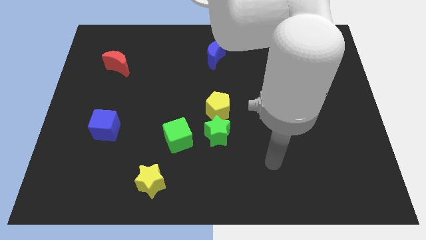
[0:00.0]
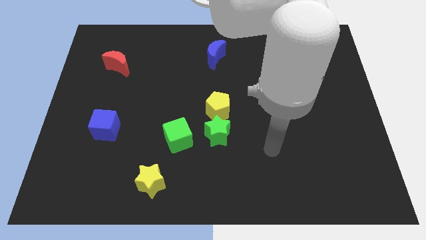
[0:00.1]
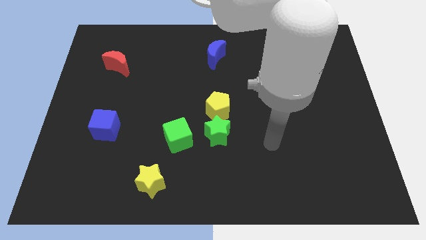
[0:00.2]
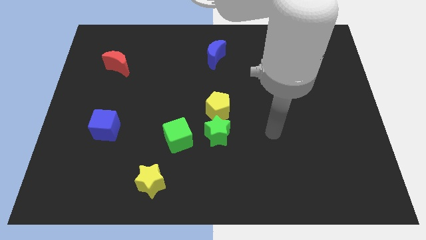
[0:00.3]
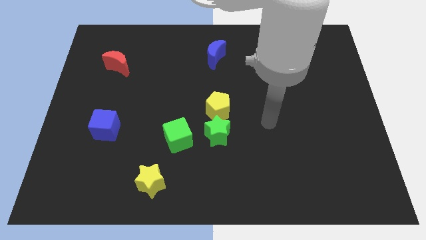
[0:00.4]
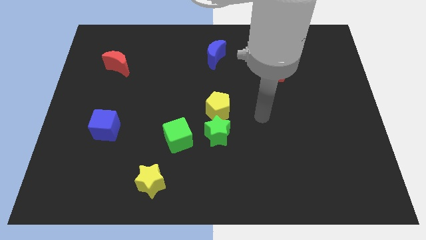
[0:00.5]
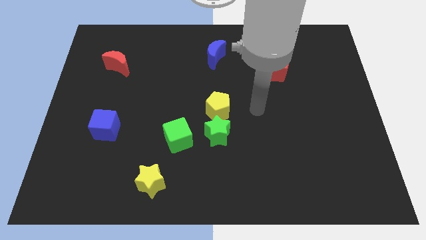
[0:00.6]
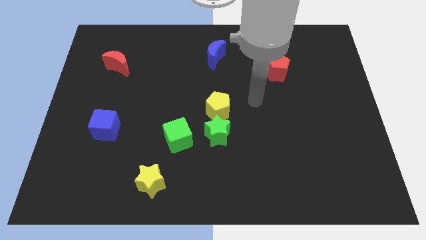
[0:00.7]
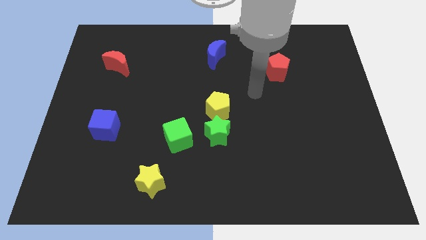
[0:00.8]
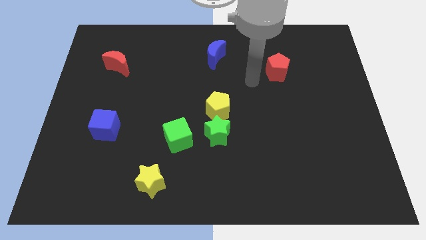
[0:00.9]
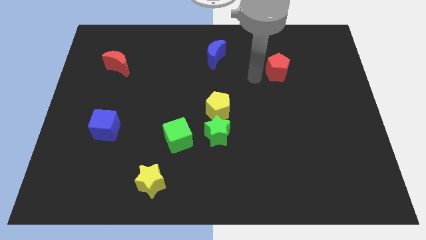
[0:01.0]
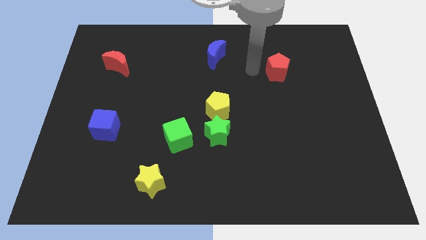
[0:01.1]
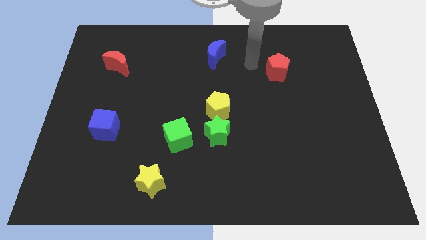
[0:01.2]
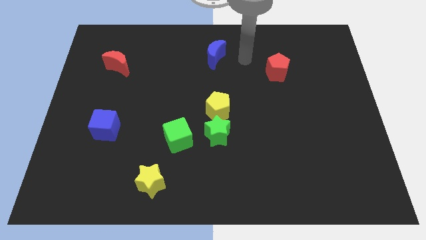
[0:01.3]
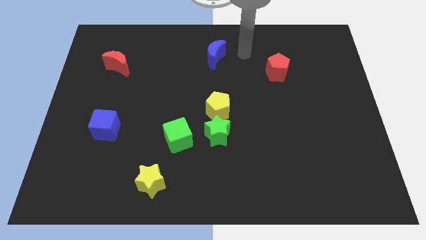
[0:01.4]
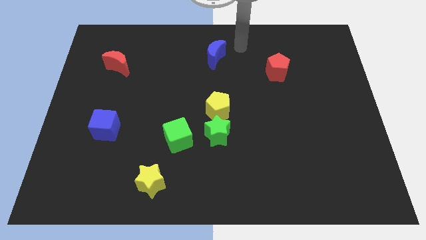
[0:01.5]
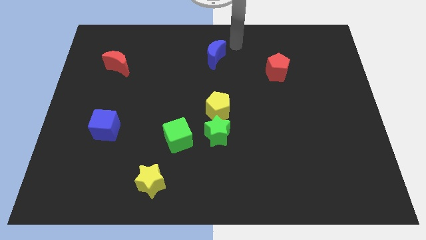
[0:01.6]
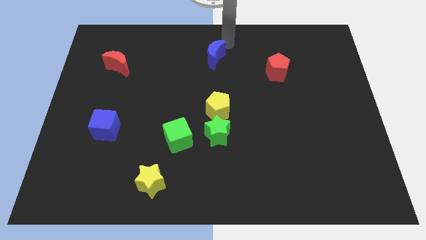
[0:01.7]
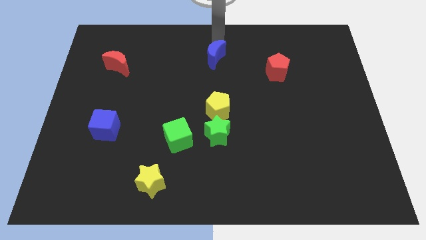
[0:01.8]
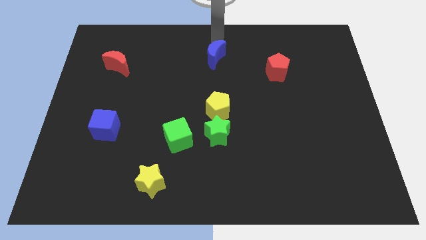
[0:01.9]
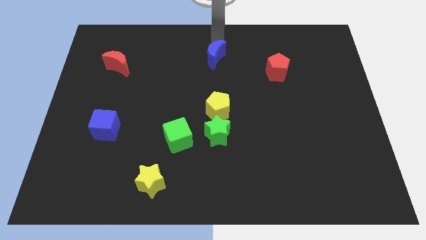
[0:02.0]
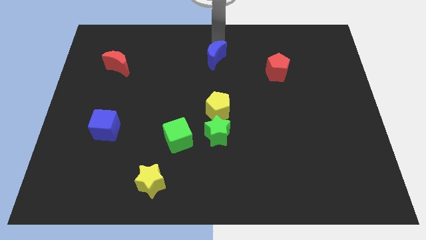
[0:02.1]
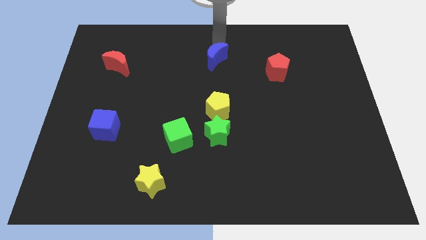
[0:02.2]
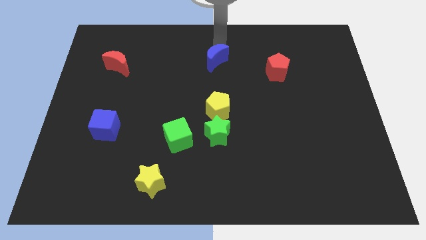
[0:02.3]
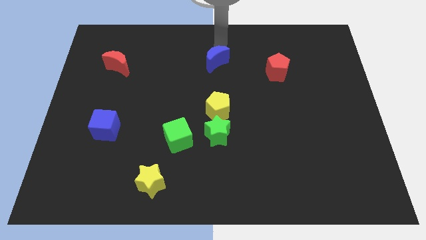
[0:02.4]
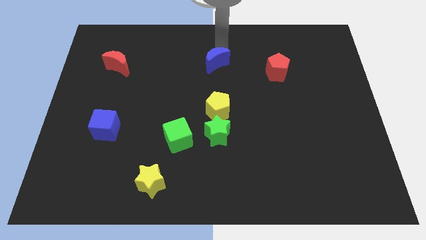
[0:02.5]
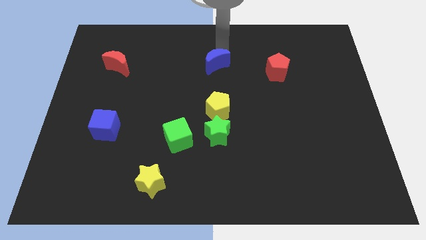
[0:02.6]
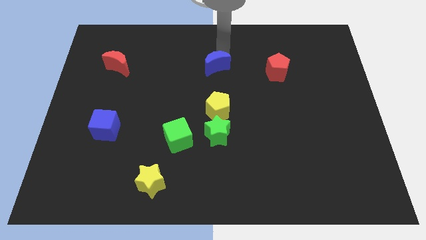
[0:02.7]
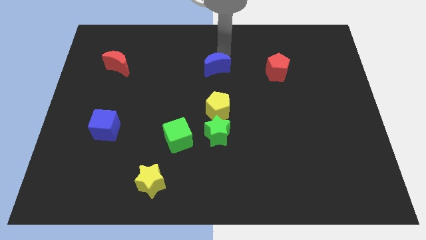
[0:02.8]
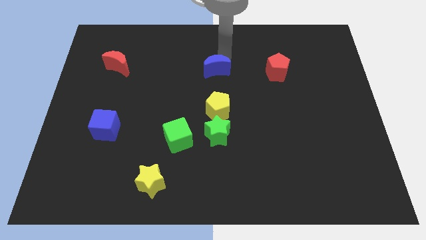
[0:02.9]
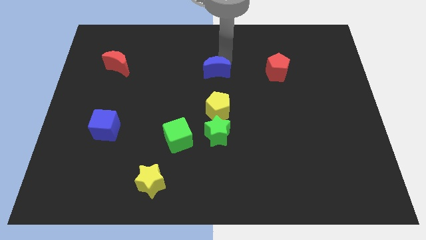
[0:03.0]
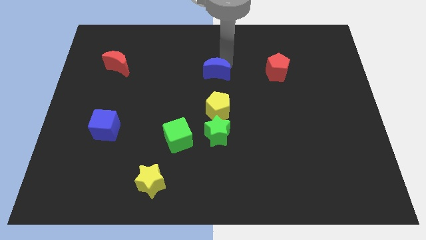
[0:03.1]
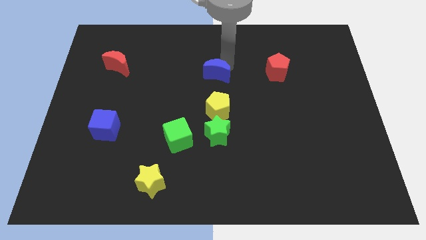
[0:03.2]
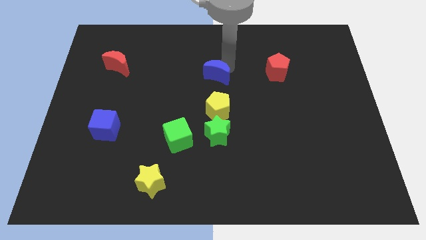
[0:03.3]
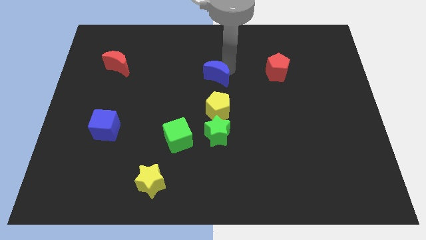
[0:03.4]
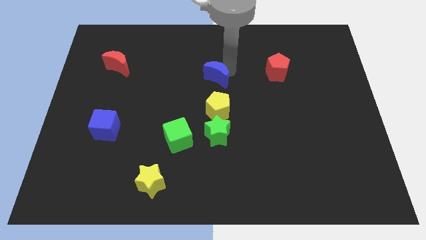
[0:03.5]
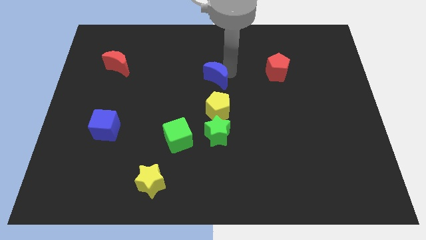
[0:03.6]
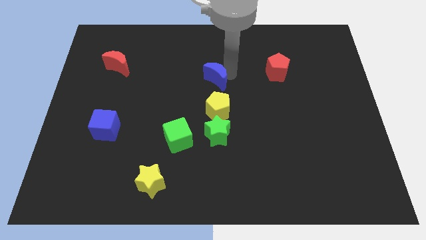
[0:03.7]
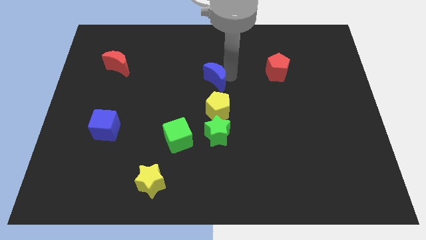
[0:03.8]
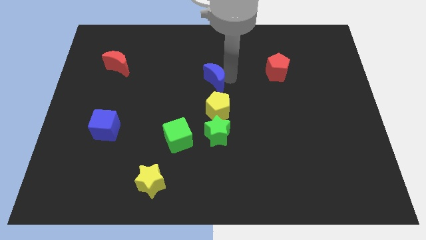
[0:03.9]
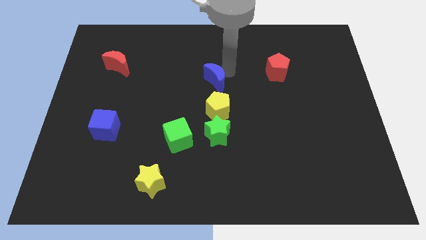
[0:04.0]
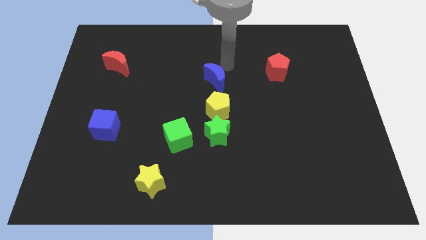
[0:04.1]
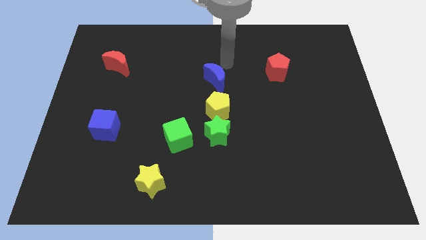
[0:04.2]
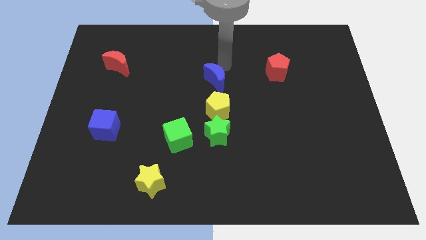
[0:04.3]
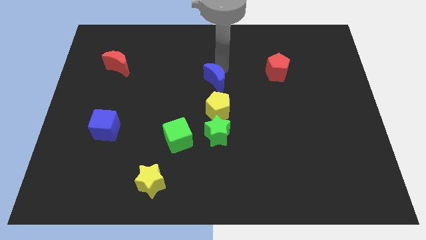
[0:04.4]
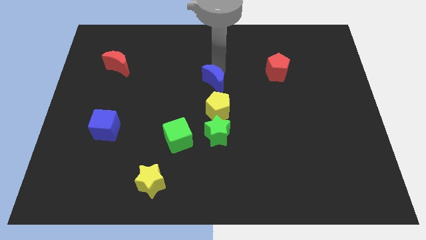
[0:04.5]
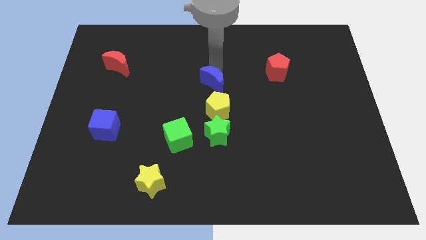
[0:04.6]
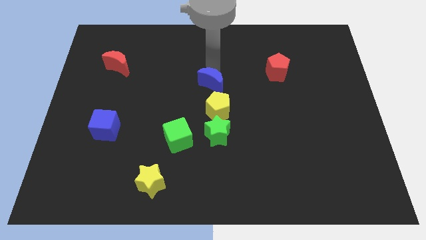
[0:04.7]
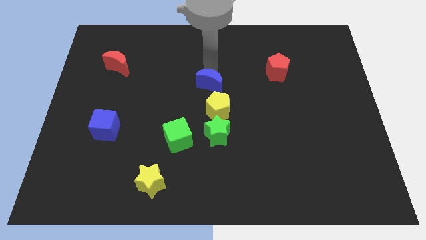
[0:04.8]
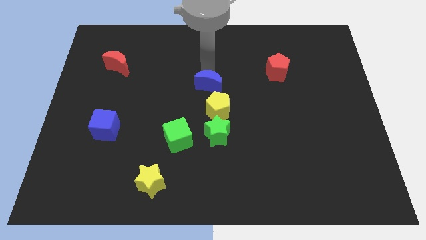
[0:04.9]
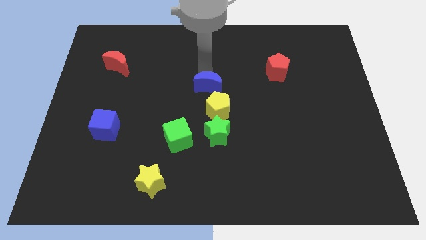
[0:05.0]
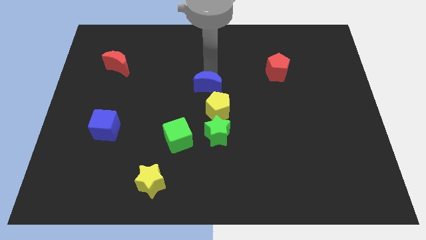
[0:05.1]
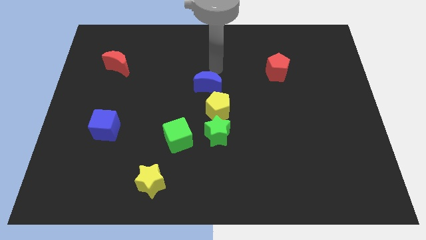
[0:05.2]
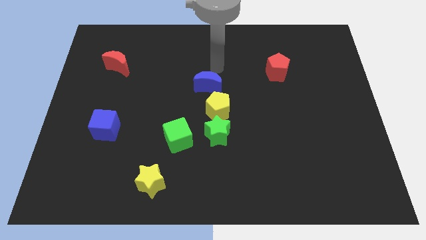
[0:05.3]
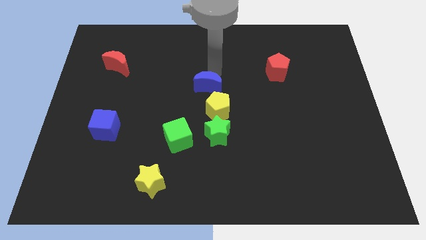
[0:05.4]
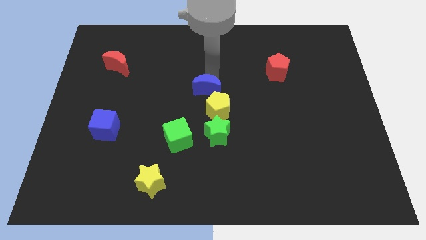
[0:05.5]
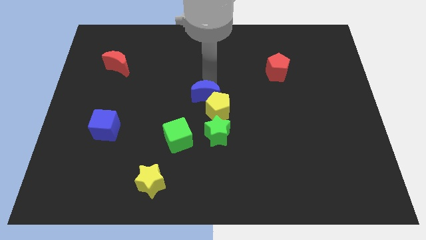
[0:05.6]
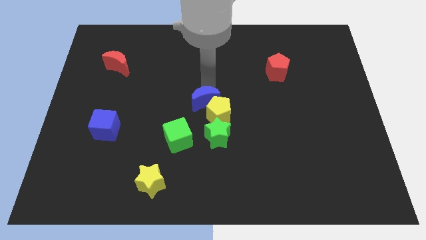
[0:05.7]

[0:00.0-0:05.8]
move the blue moon diagonally up and to the left of the green star

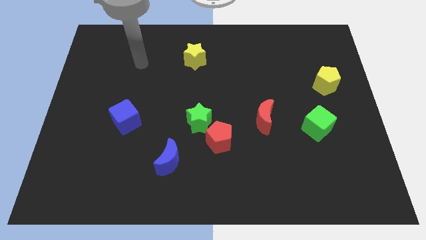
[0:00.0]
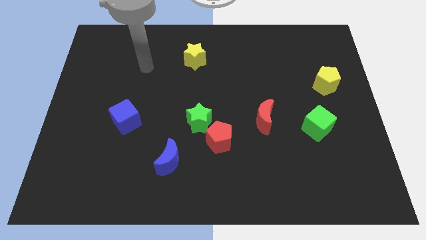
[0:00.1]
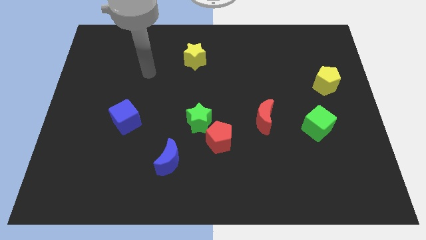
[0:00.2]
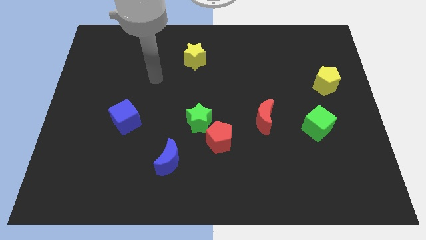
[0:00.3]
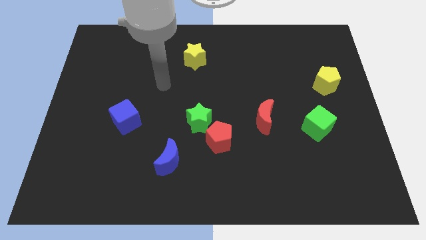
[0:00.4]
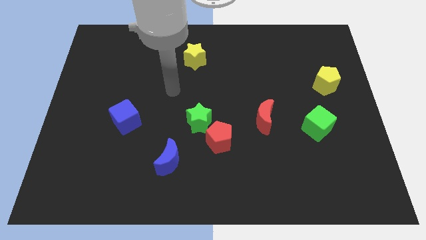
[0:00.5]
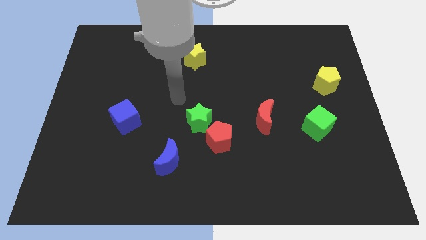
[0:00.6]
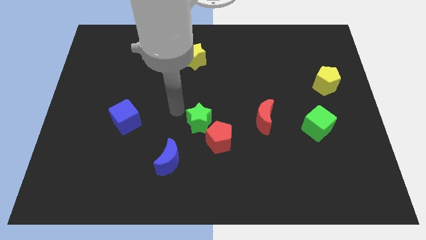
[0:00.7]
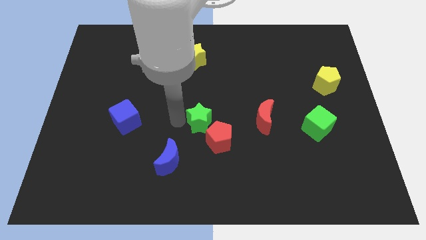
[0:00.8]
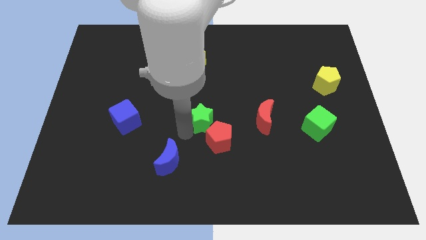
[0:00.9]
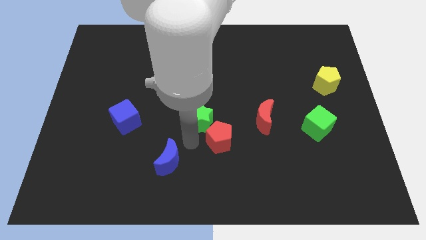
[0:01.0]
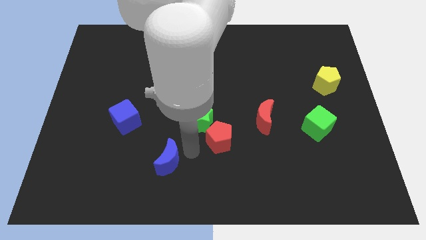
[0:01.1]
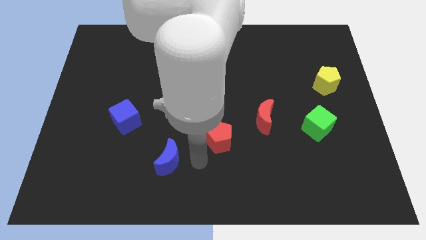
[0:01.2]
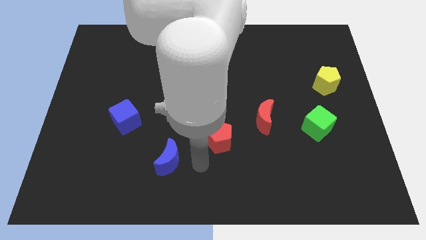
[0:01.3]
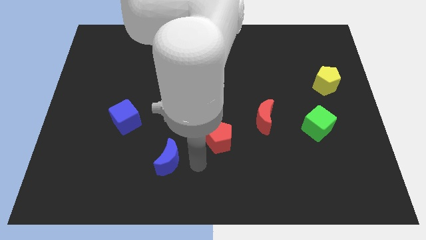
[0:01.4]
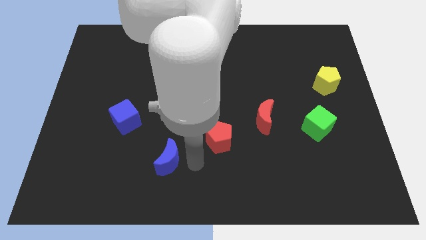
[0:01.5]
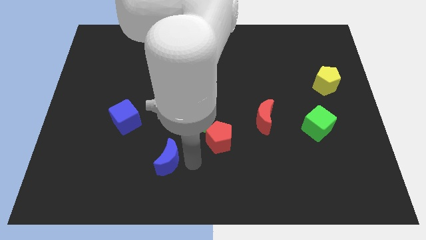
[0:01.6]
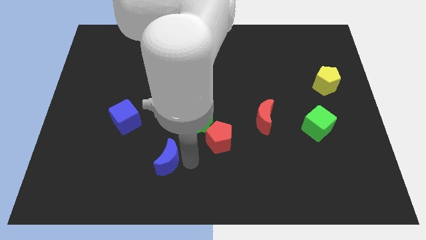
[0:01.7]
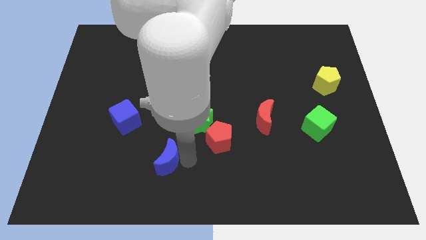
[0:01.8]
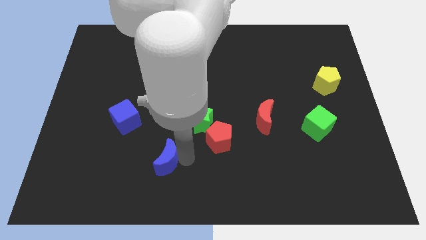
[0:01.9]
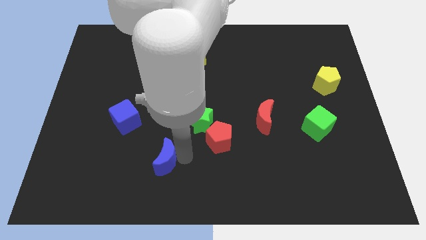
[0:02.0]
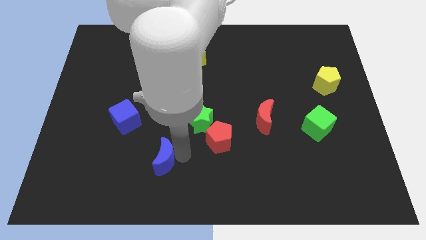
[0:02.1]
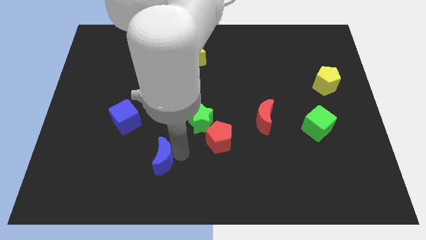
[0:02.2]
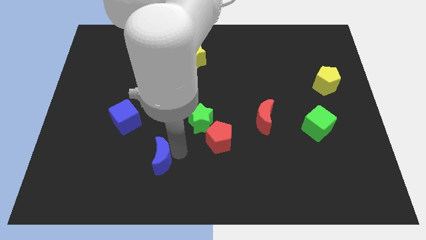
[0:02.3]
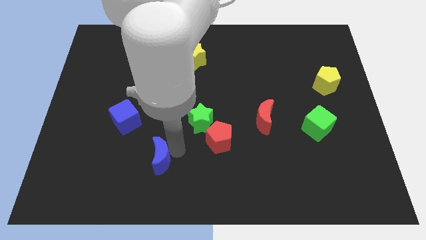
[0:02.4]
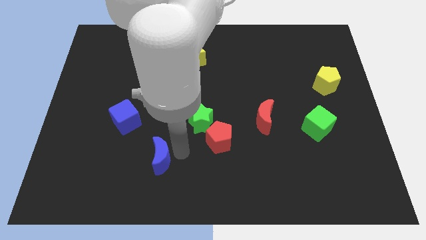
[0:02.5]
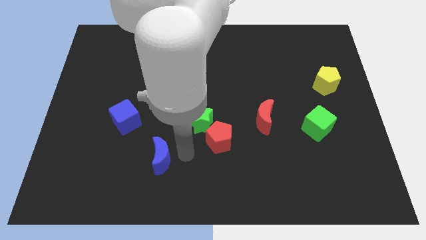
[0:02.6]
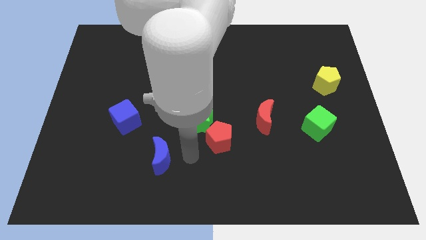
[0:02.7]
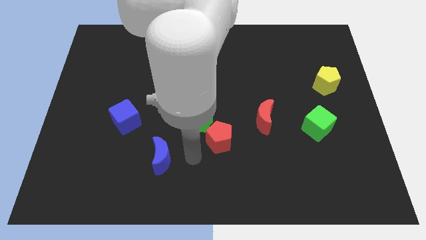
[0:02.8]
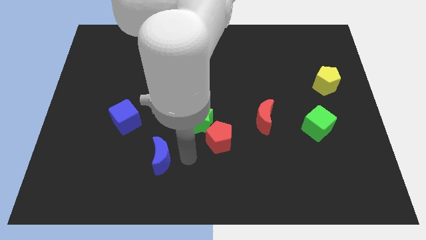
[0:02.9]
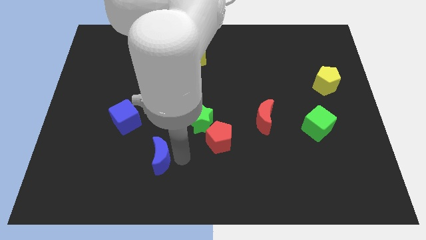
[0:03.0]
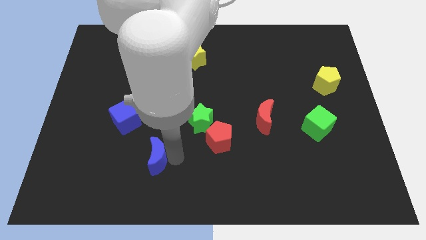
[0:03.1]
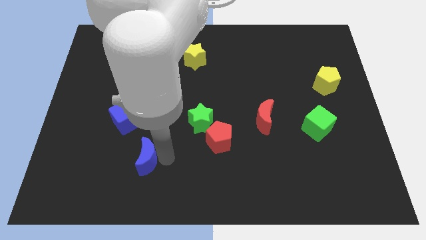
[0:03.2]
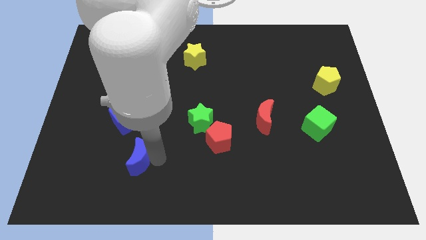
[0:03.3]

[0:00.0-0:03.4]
move the blue moon below the blue cube
